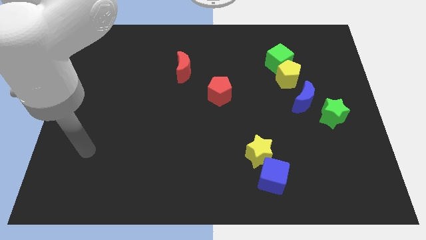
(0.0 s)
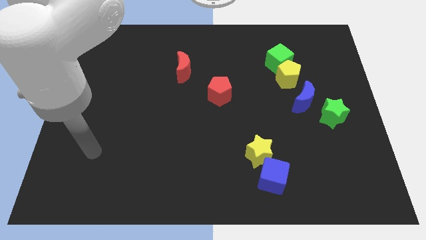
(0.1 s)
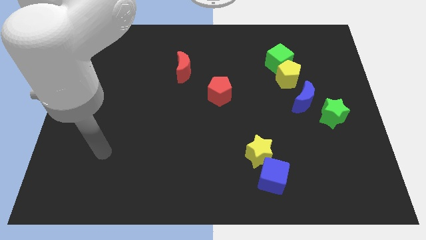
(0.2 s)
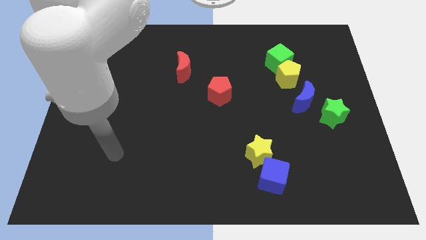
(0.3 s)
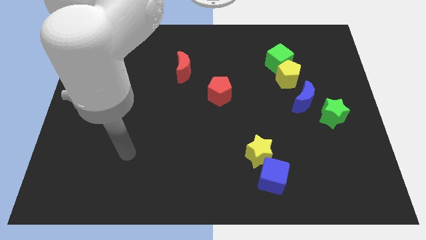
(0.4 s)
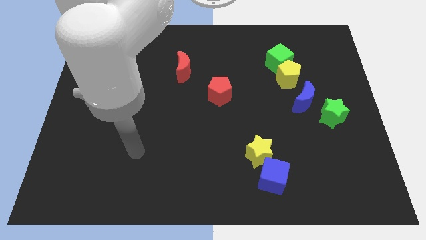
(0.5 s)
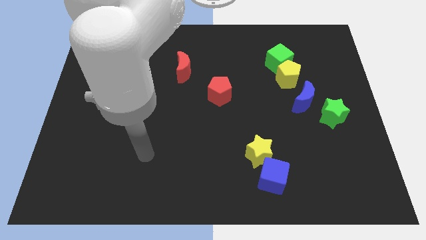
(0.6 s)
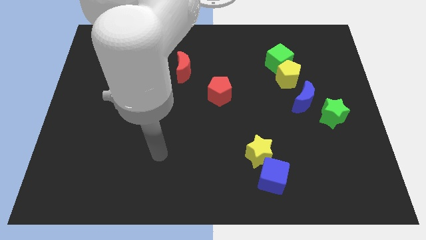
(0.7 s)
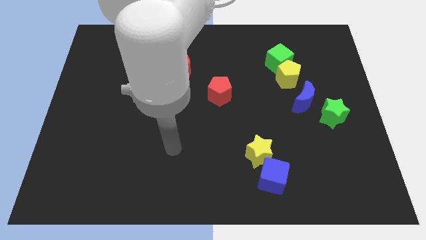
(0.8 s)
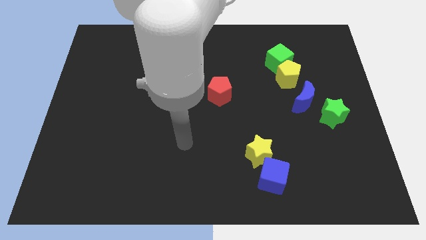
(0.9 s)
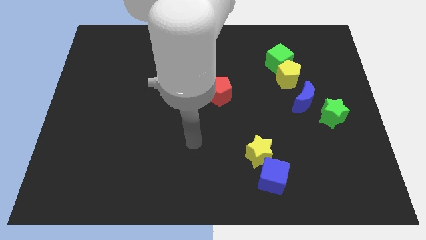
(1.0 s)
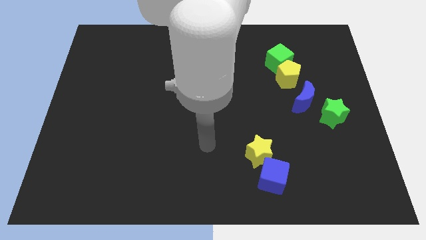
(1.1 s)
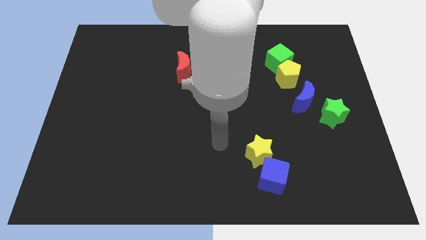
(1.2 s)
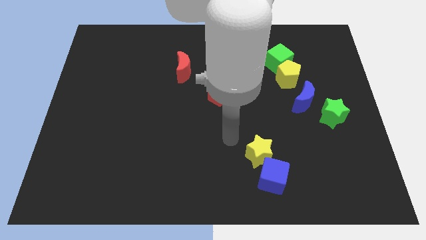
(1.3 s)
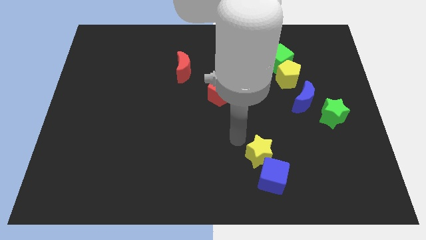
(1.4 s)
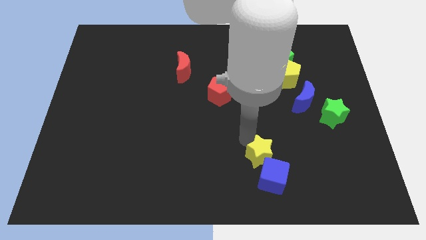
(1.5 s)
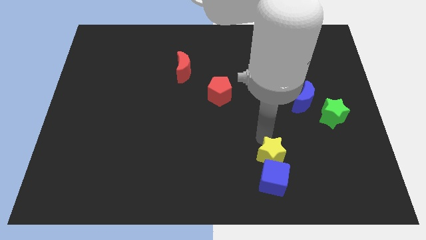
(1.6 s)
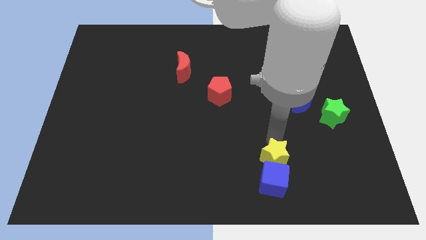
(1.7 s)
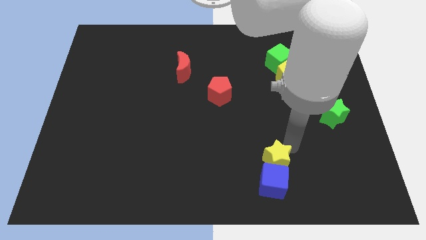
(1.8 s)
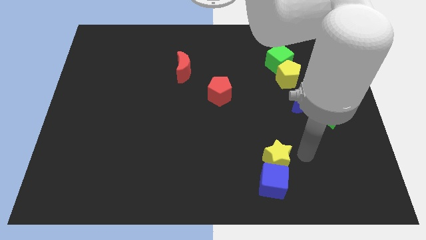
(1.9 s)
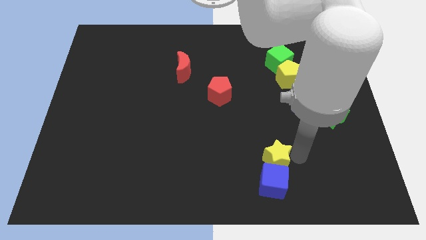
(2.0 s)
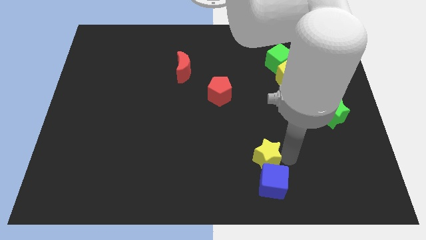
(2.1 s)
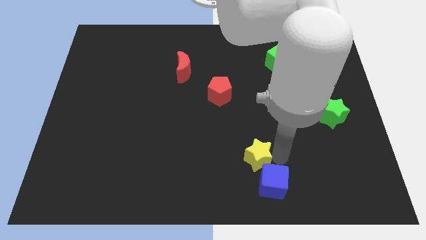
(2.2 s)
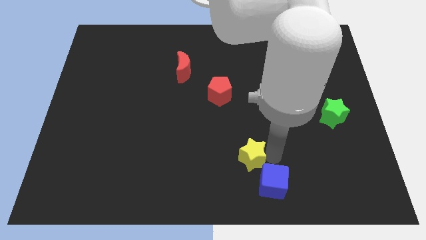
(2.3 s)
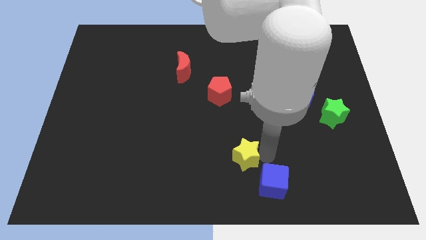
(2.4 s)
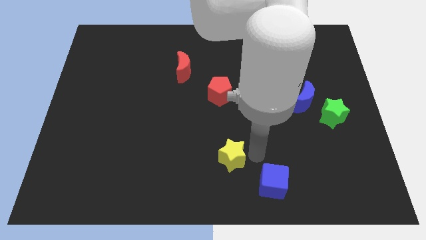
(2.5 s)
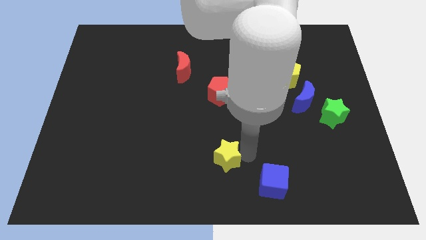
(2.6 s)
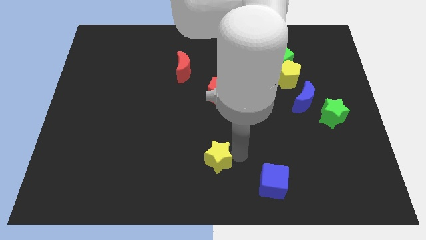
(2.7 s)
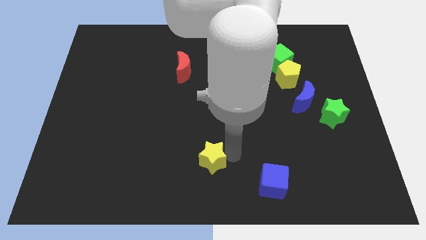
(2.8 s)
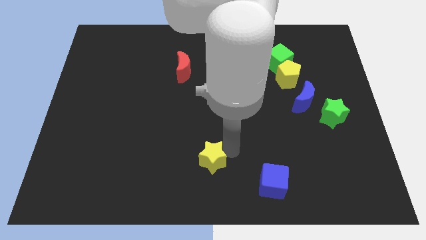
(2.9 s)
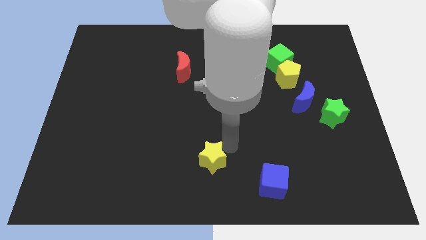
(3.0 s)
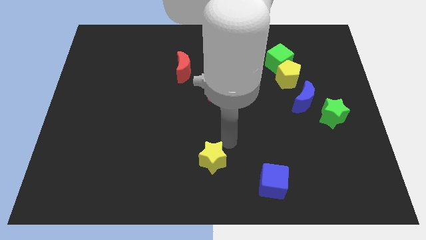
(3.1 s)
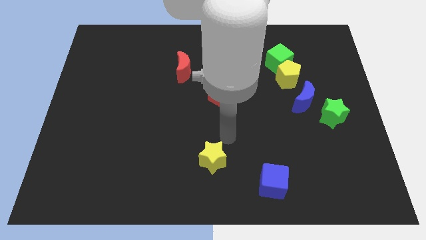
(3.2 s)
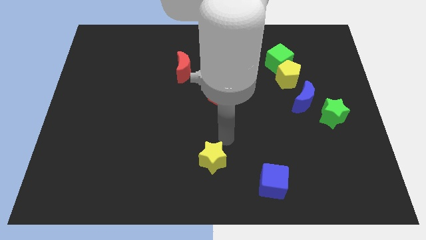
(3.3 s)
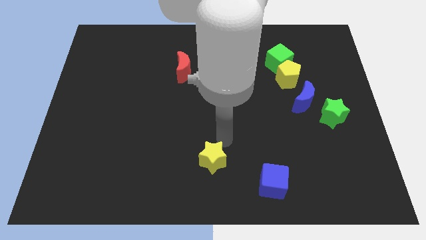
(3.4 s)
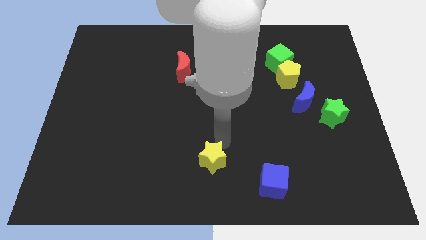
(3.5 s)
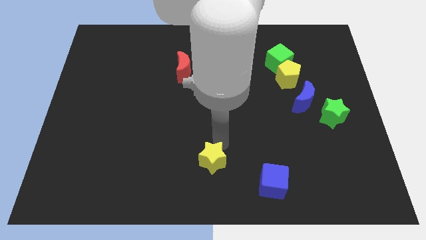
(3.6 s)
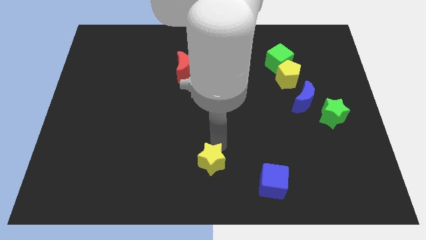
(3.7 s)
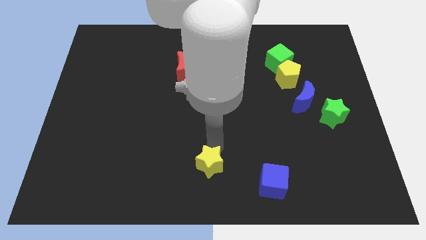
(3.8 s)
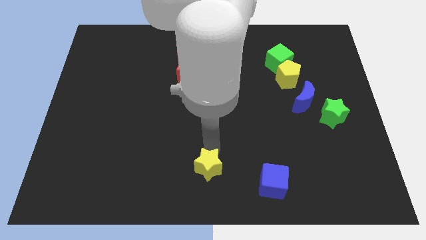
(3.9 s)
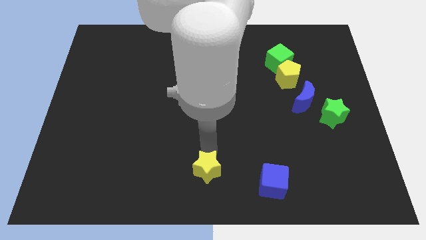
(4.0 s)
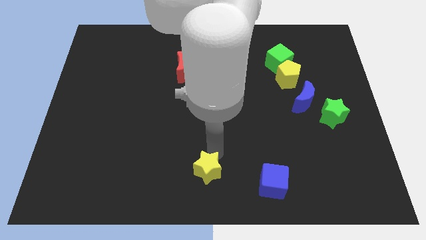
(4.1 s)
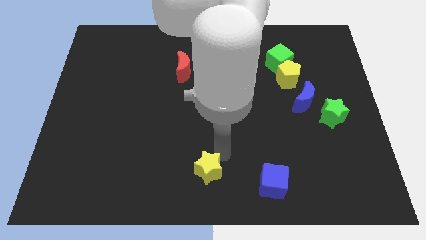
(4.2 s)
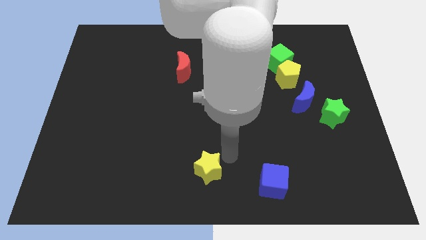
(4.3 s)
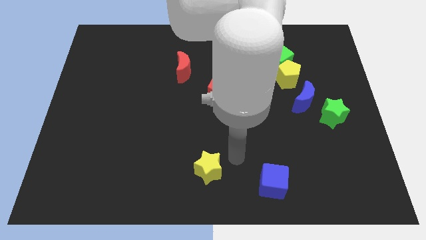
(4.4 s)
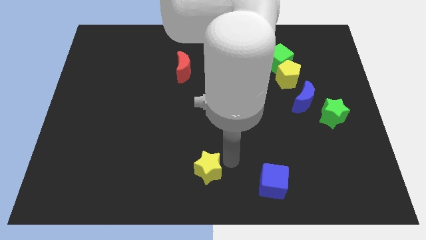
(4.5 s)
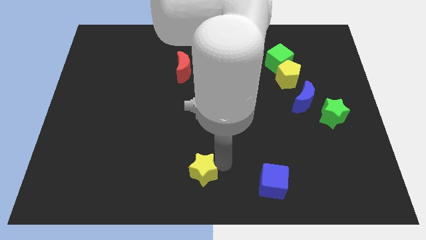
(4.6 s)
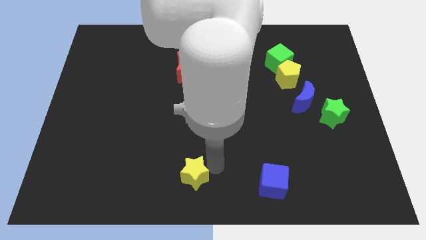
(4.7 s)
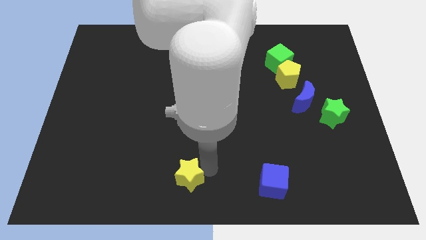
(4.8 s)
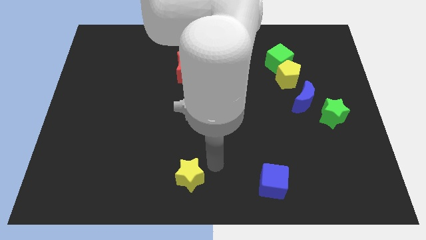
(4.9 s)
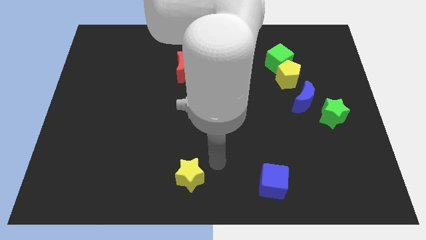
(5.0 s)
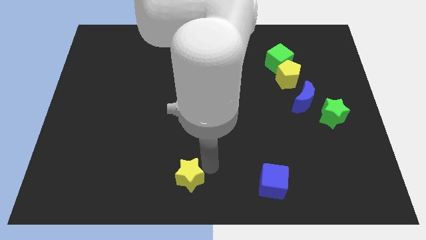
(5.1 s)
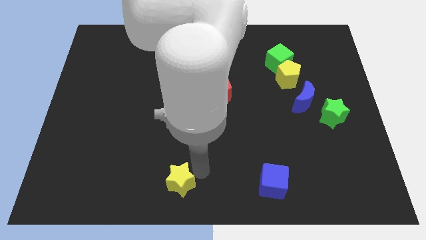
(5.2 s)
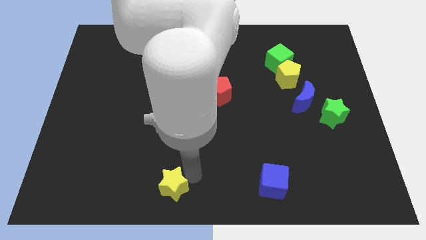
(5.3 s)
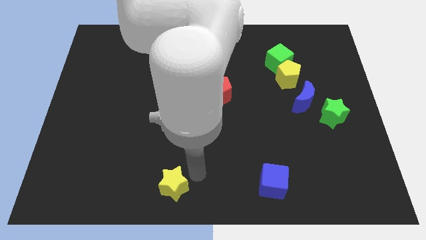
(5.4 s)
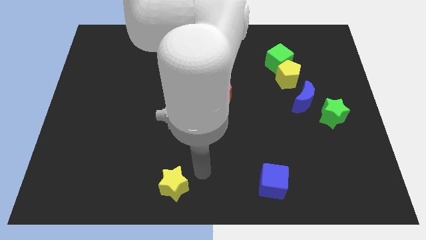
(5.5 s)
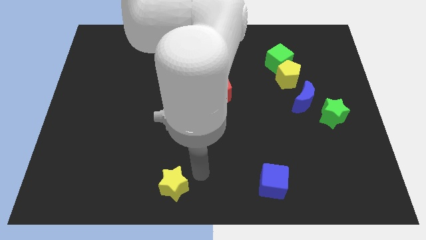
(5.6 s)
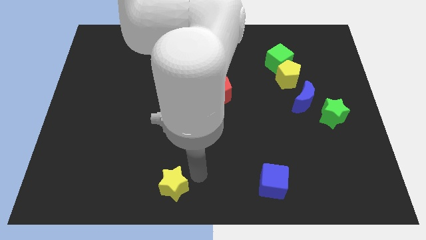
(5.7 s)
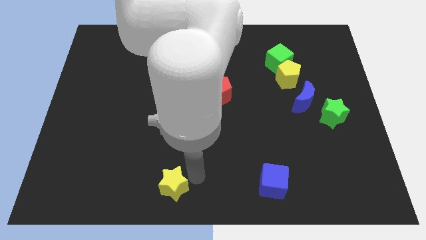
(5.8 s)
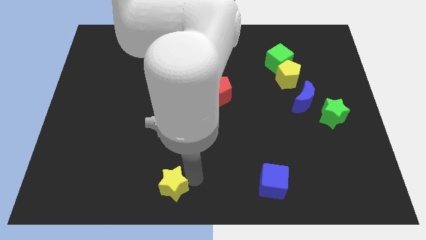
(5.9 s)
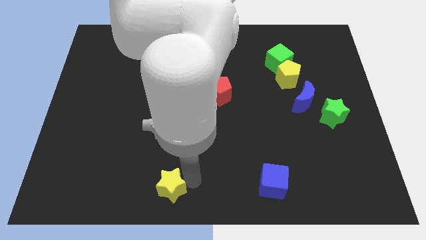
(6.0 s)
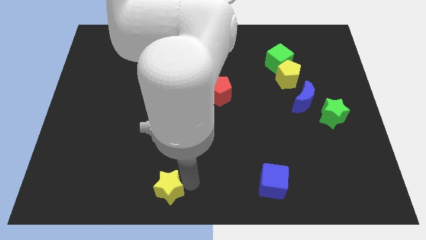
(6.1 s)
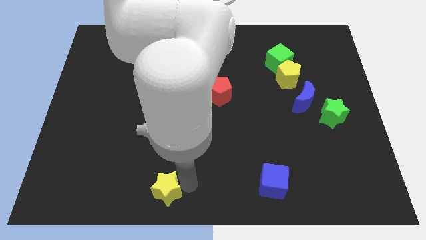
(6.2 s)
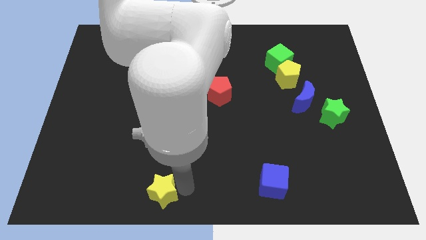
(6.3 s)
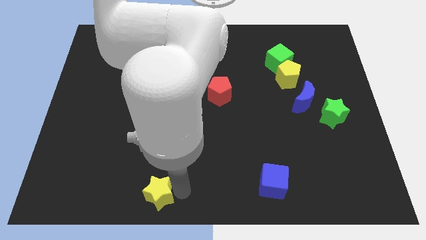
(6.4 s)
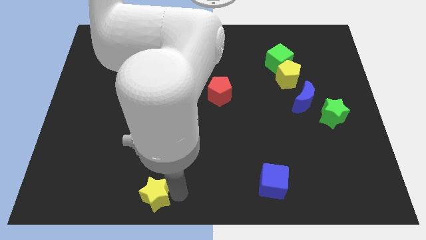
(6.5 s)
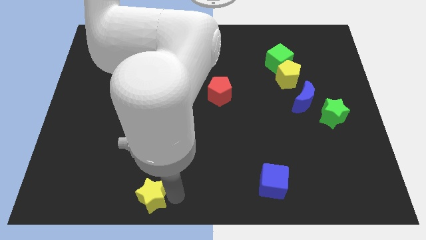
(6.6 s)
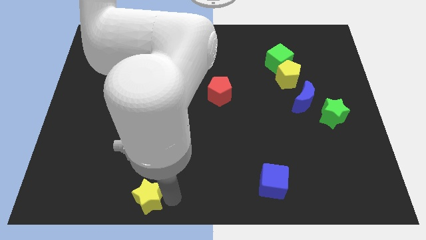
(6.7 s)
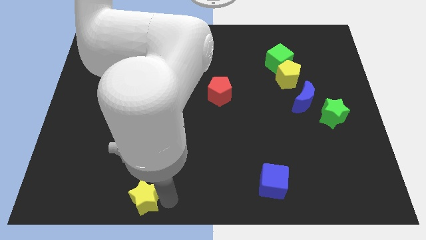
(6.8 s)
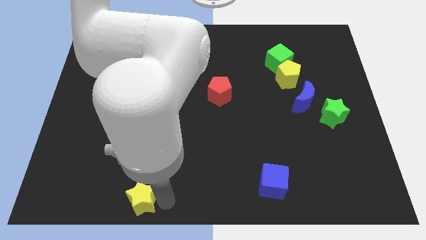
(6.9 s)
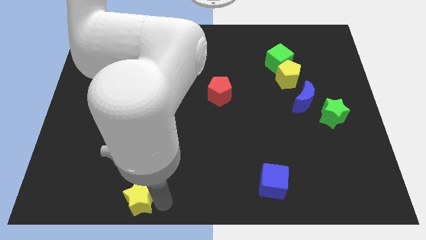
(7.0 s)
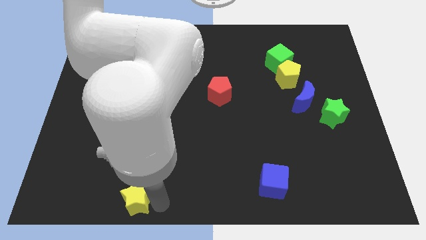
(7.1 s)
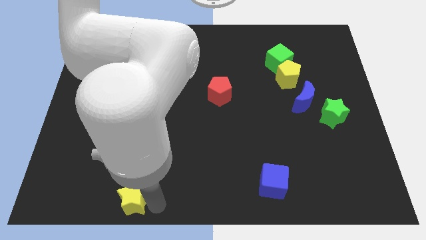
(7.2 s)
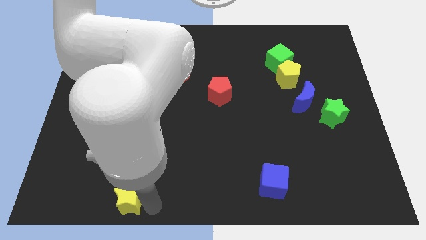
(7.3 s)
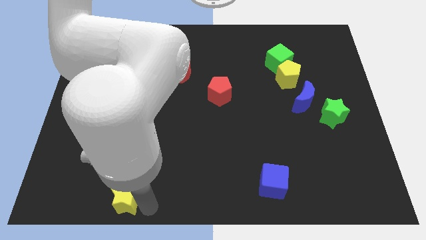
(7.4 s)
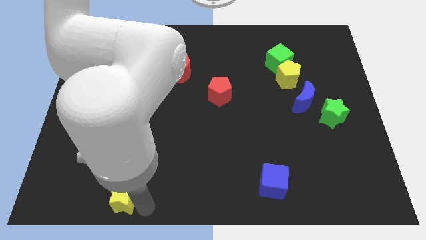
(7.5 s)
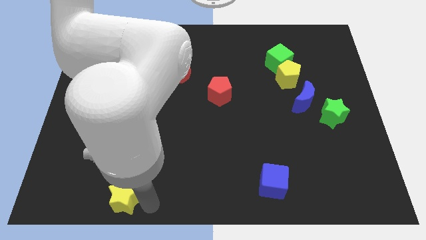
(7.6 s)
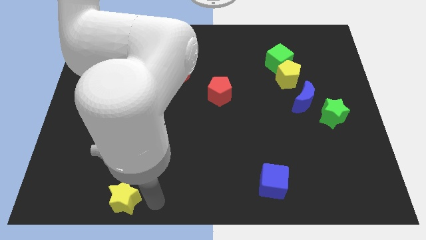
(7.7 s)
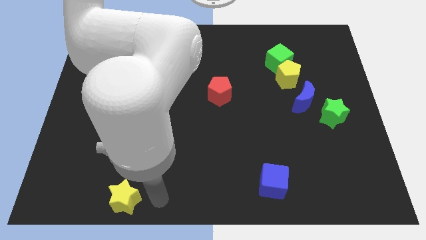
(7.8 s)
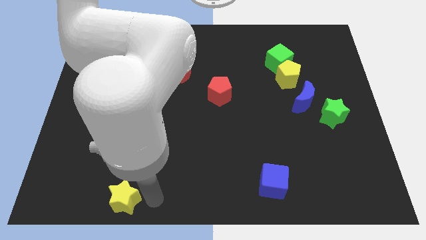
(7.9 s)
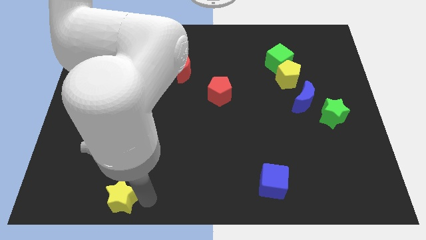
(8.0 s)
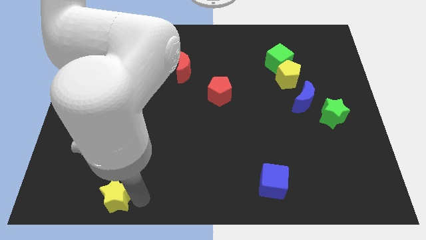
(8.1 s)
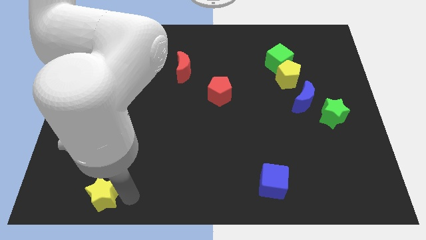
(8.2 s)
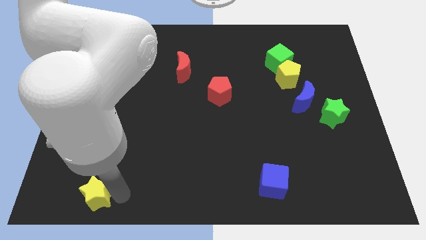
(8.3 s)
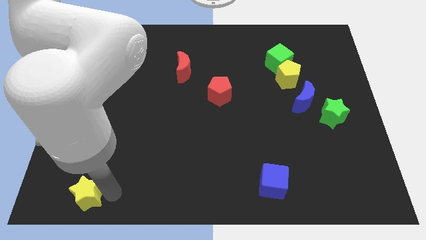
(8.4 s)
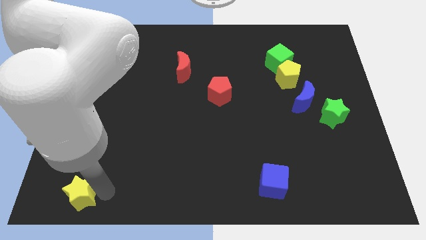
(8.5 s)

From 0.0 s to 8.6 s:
put the yellow star to the lower left corner
